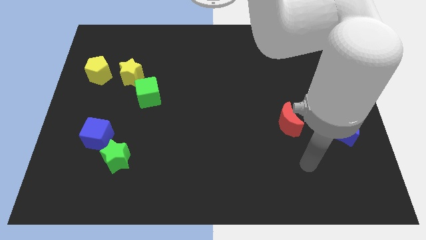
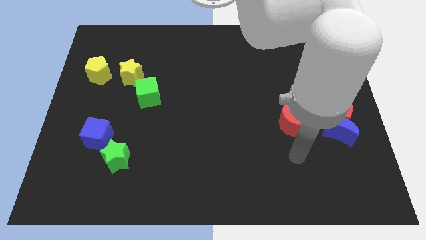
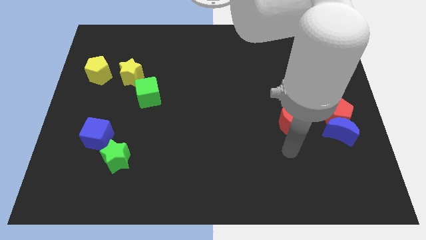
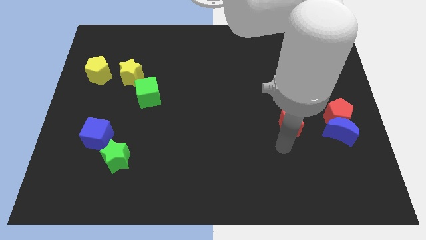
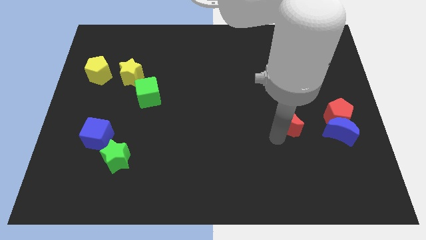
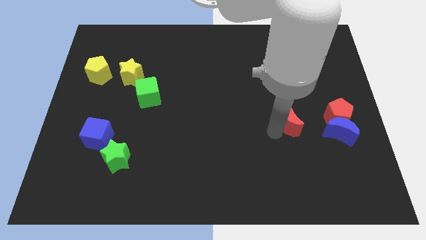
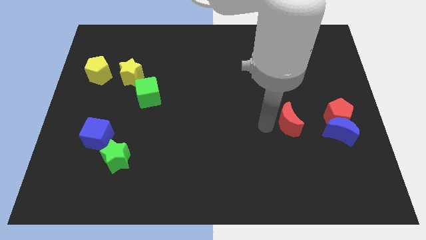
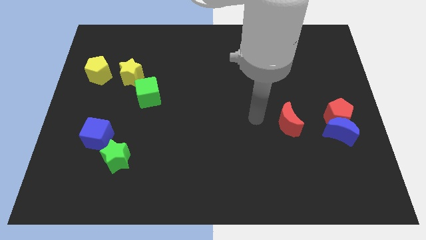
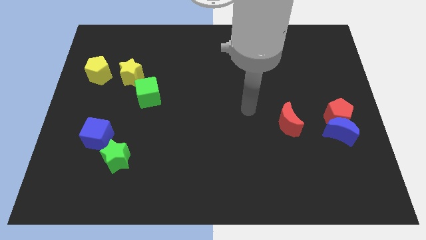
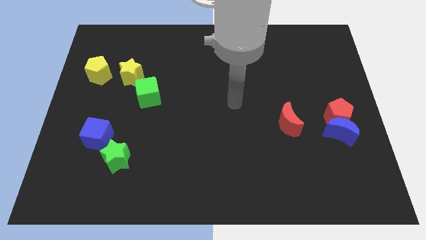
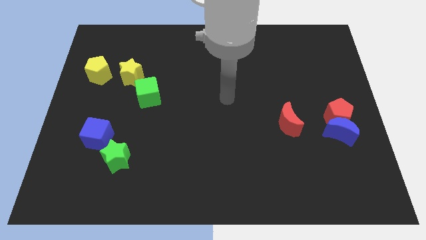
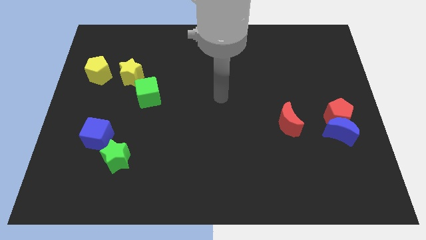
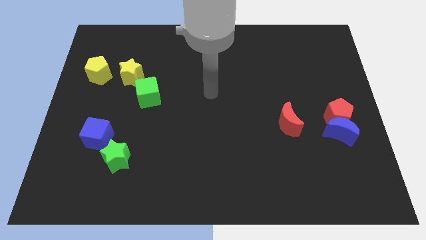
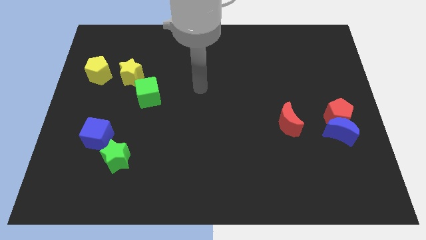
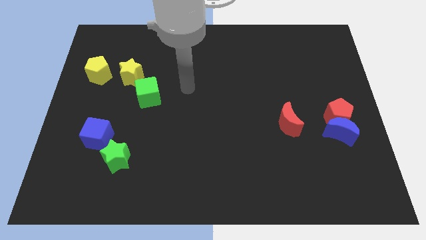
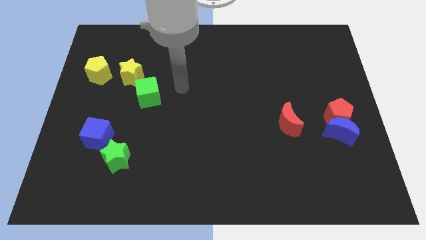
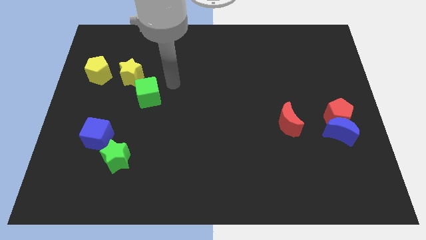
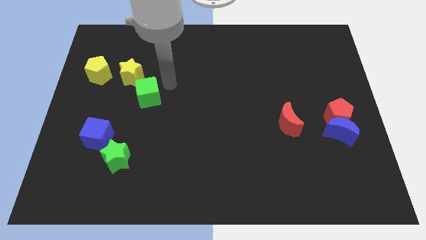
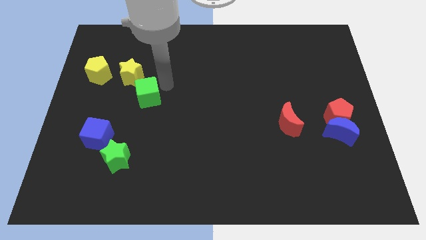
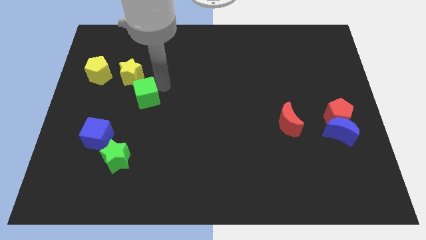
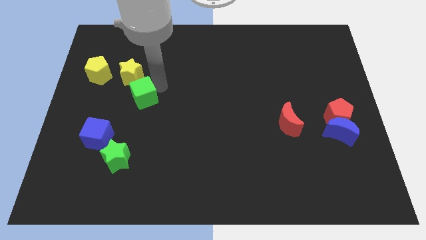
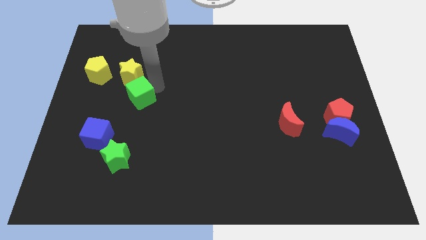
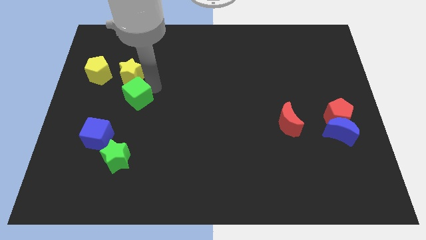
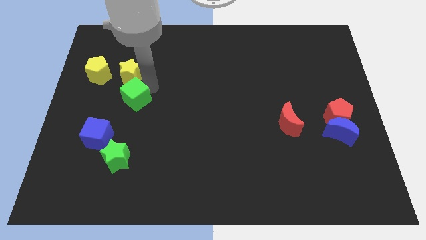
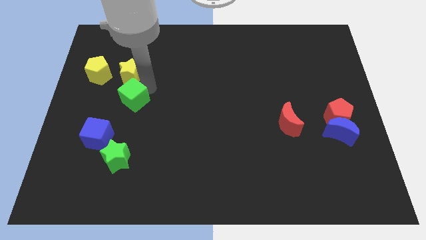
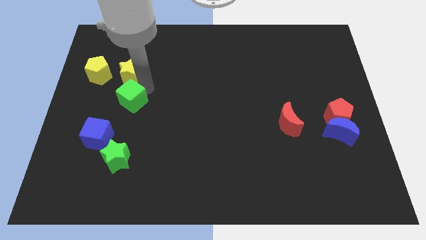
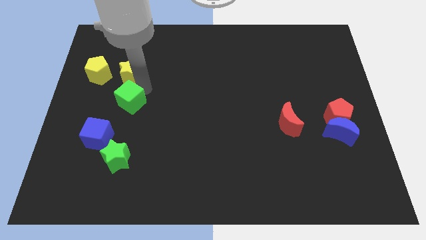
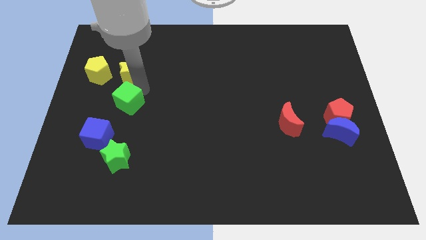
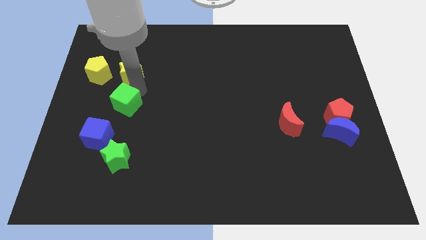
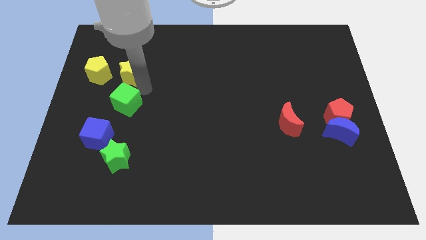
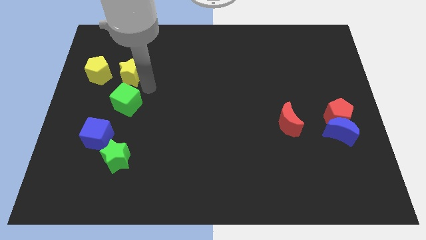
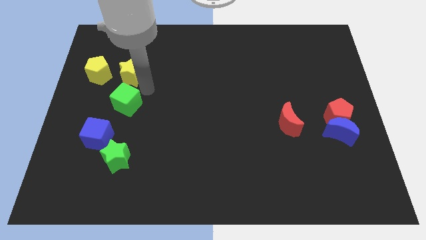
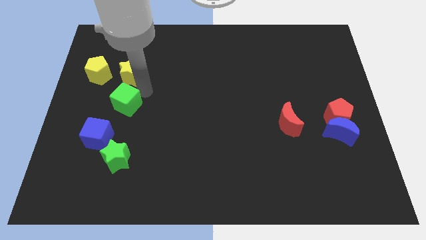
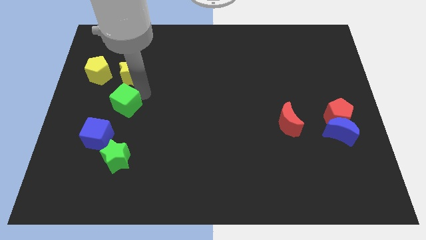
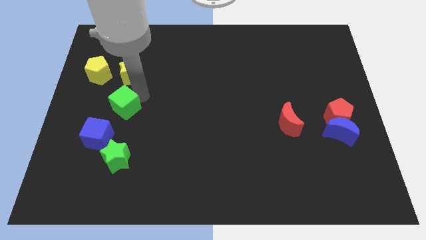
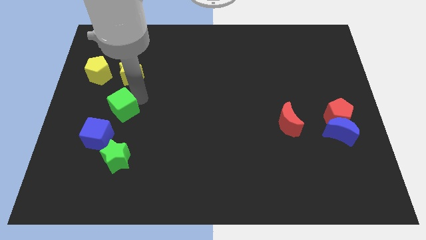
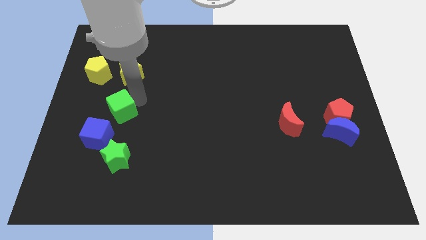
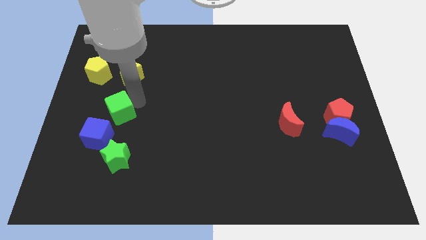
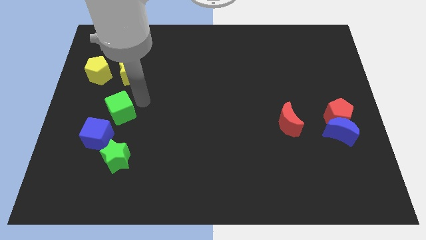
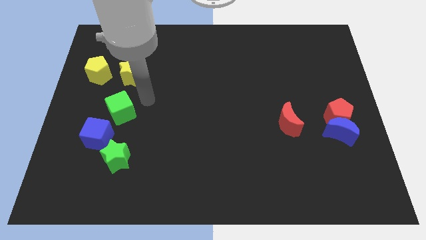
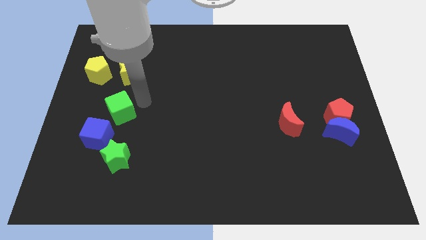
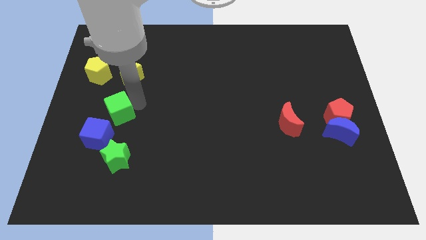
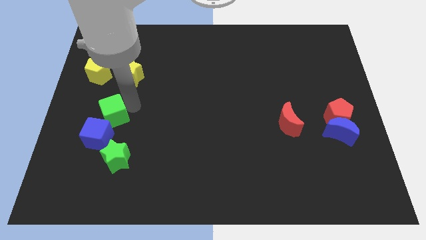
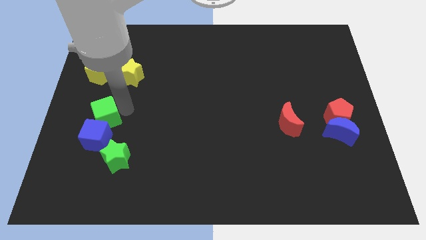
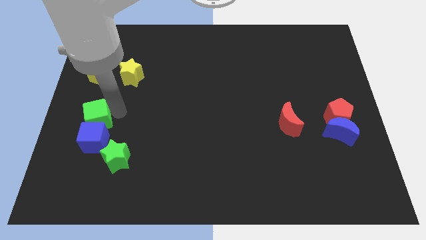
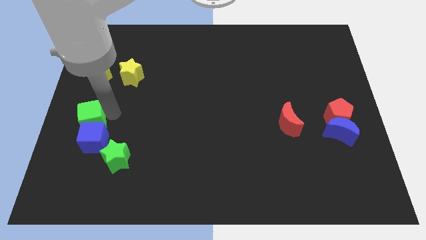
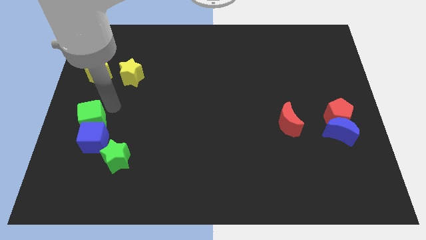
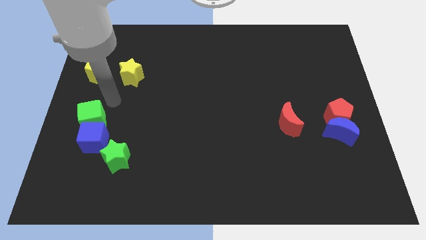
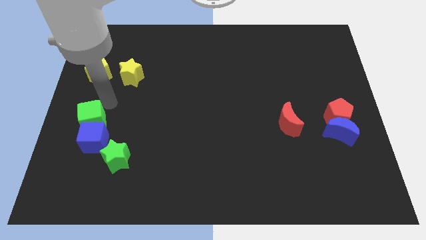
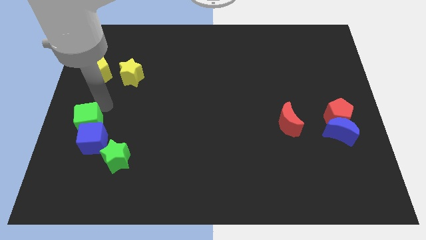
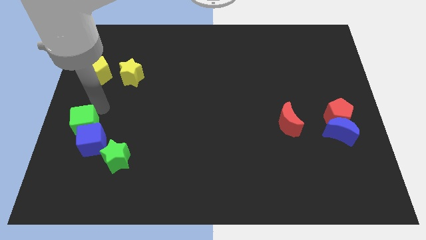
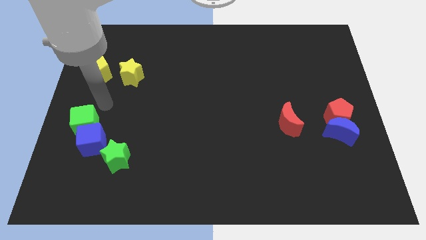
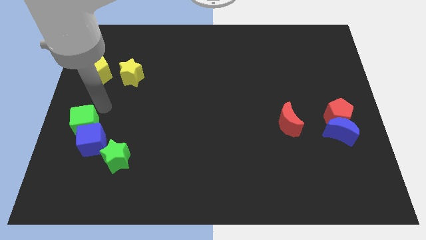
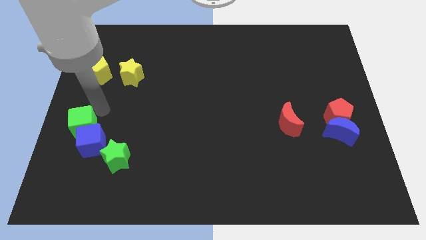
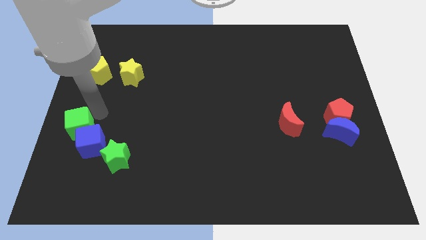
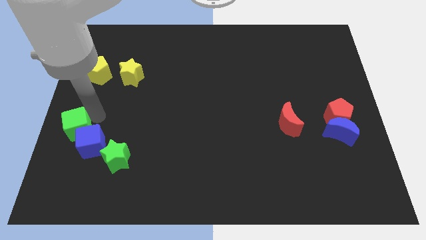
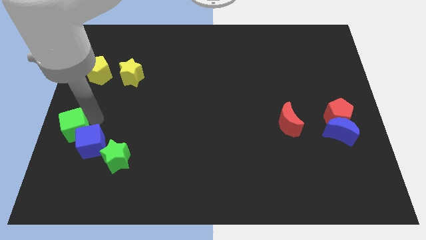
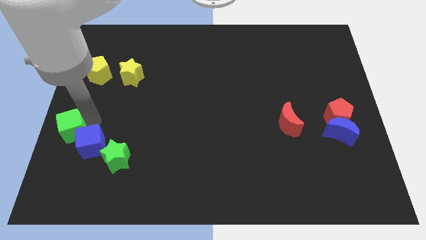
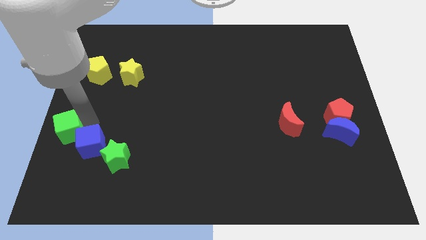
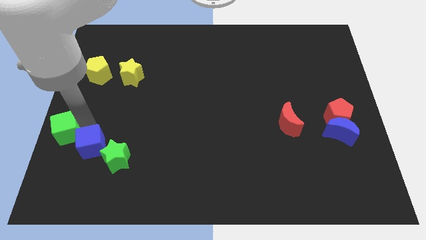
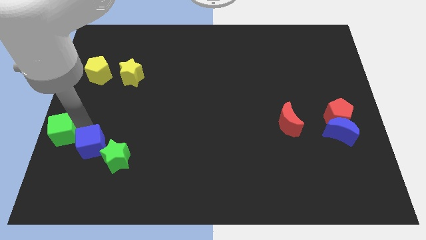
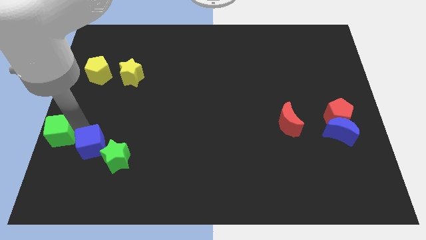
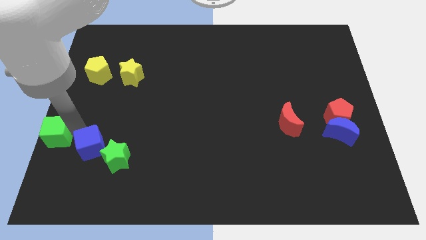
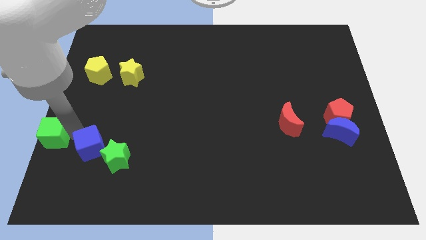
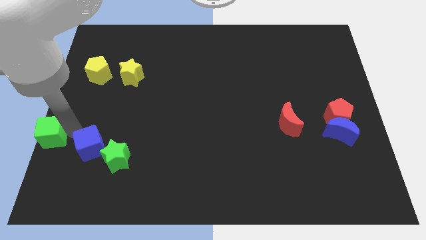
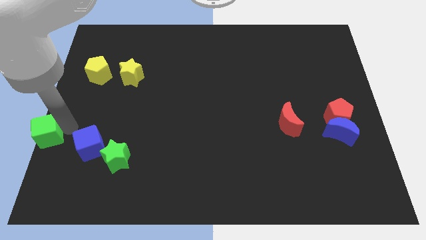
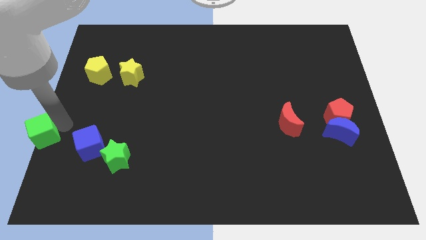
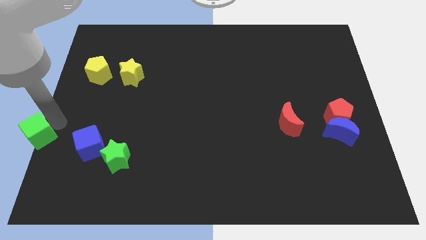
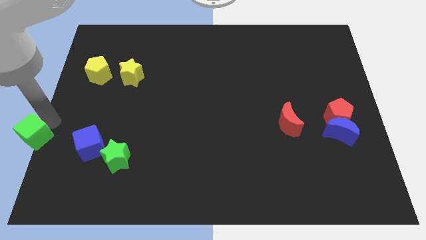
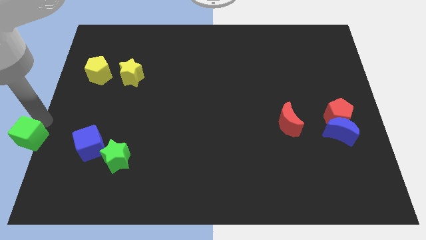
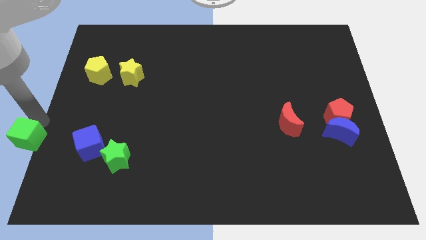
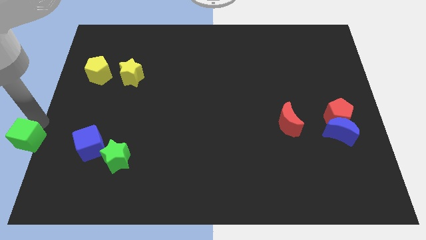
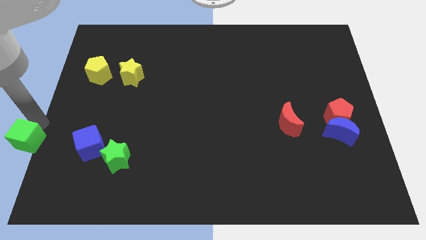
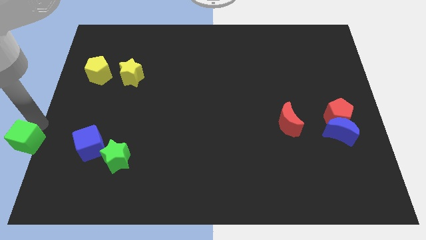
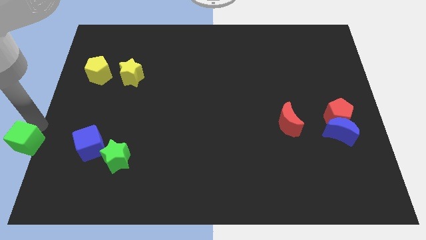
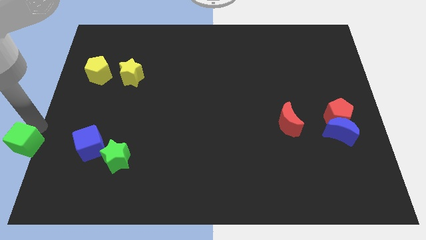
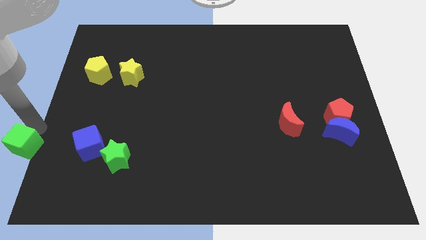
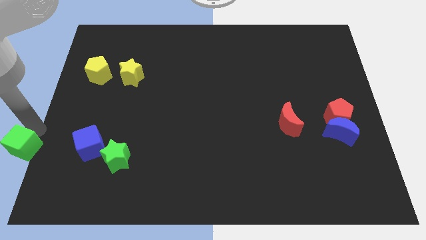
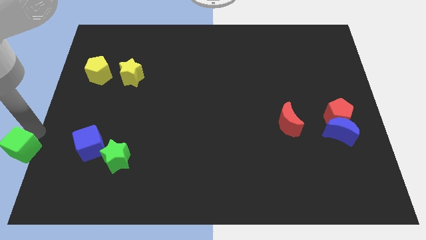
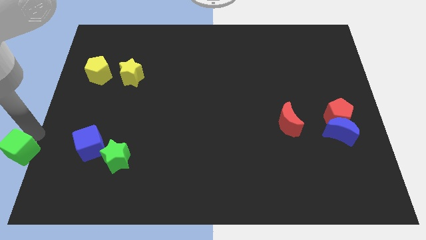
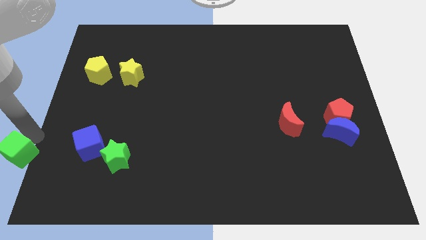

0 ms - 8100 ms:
move the green cube to the bottom left of the board
